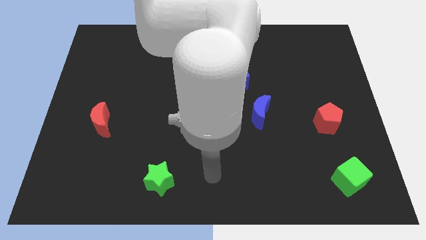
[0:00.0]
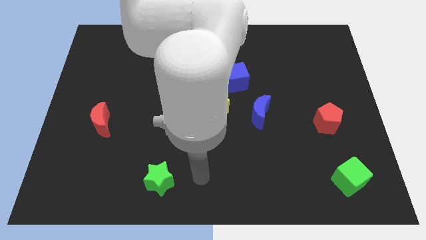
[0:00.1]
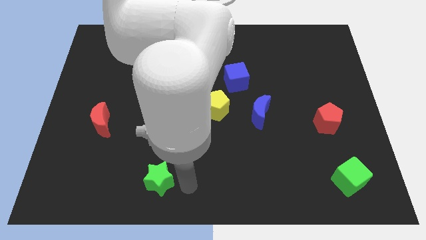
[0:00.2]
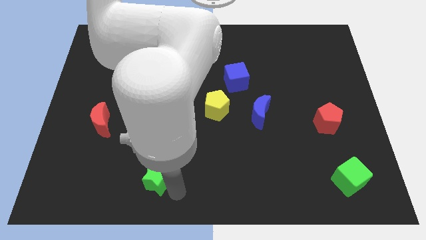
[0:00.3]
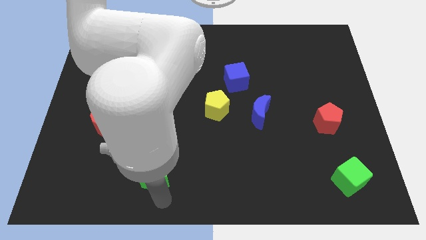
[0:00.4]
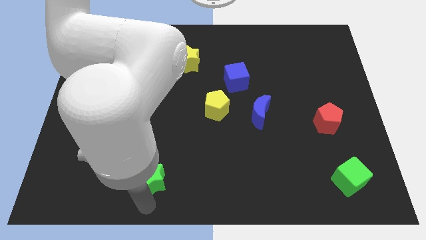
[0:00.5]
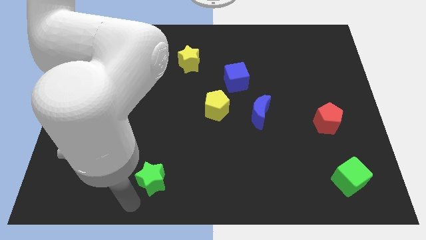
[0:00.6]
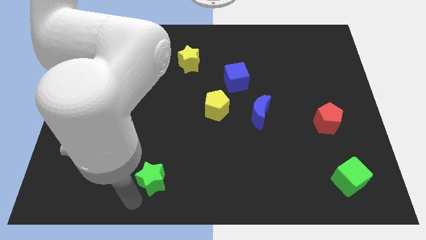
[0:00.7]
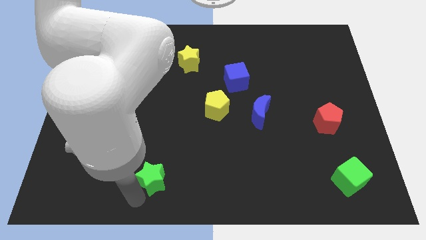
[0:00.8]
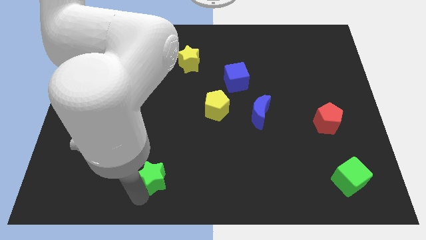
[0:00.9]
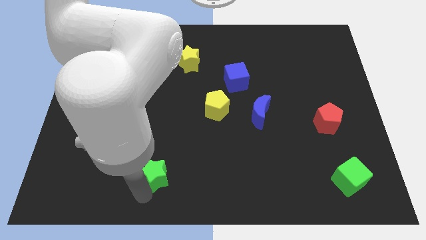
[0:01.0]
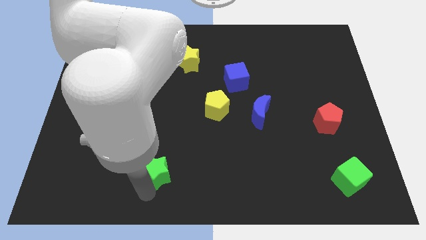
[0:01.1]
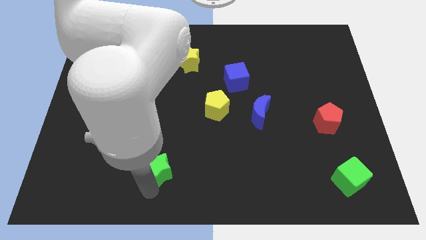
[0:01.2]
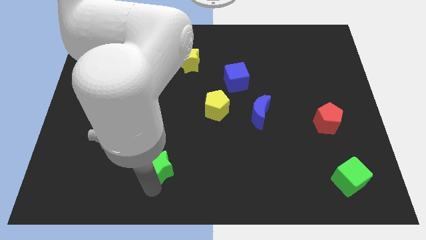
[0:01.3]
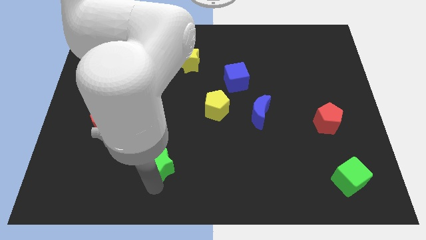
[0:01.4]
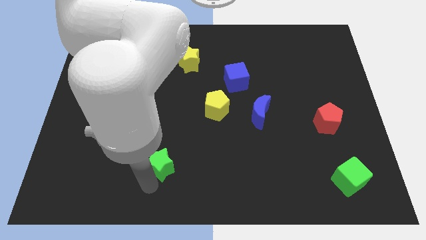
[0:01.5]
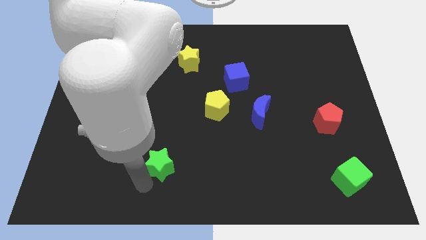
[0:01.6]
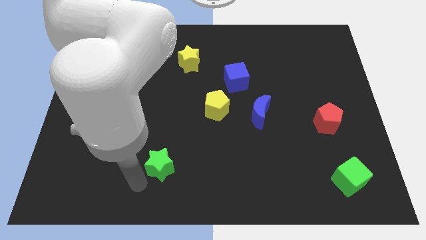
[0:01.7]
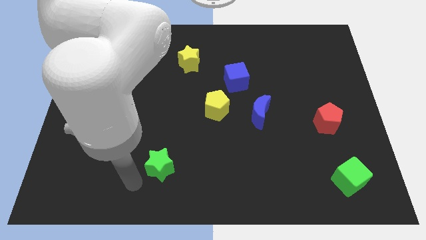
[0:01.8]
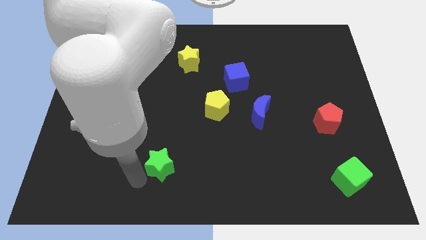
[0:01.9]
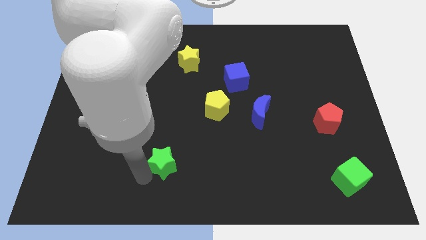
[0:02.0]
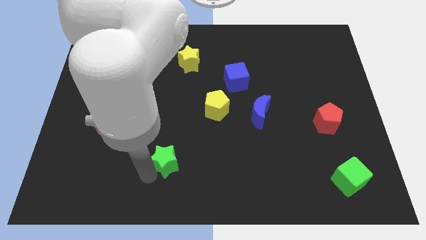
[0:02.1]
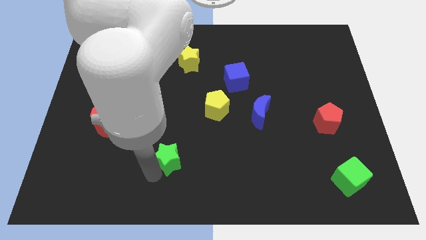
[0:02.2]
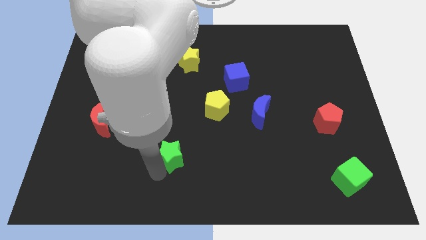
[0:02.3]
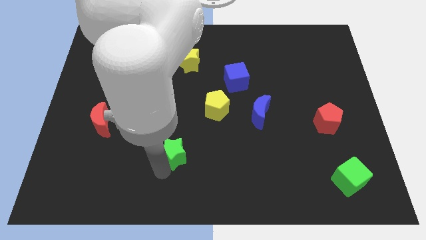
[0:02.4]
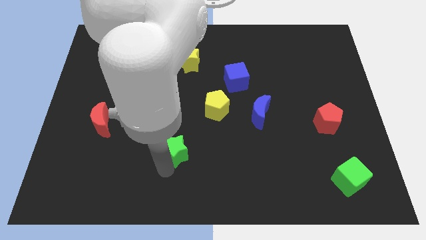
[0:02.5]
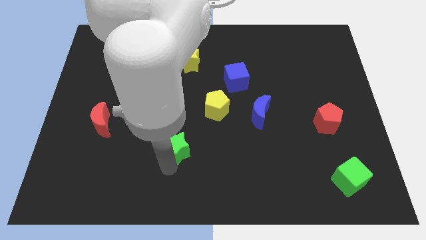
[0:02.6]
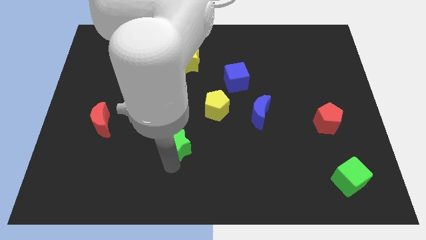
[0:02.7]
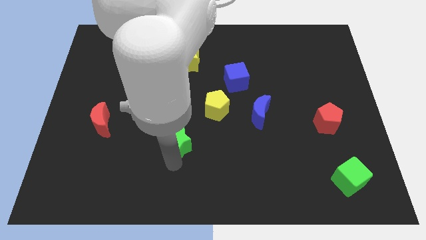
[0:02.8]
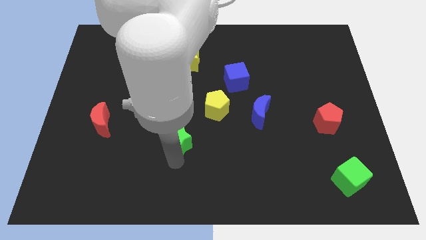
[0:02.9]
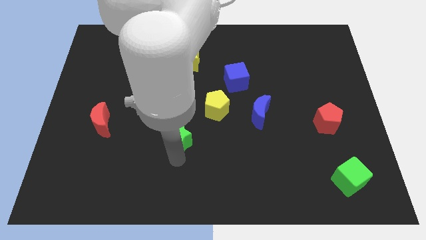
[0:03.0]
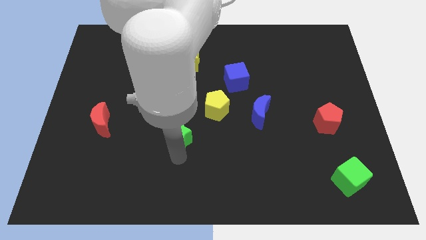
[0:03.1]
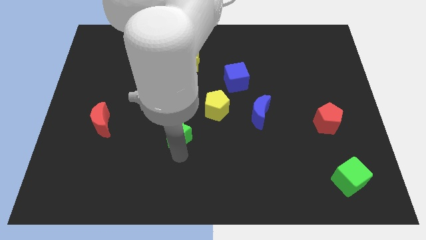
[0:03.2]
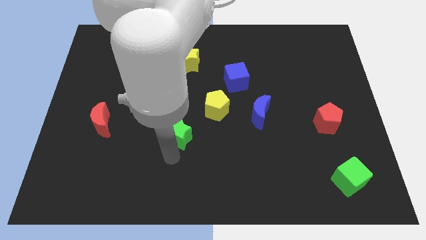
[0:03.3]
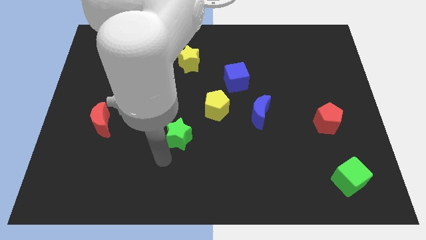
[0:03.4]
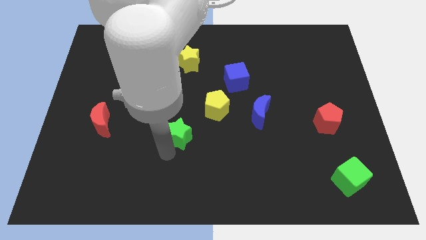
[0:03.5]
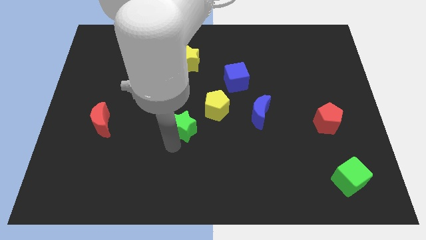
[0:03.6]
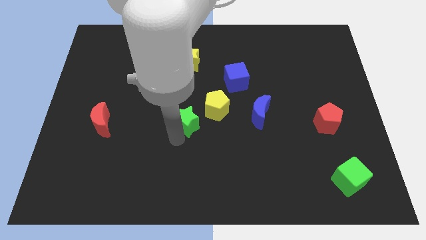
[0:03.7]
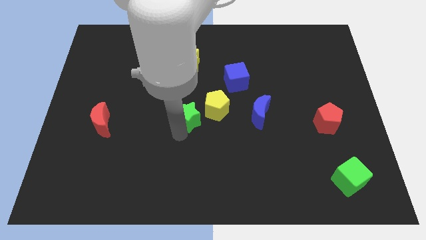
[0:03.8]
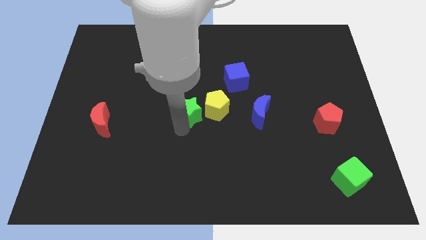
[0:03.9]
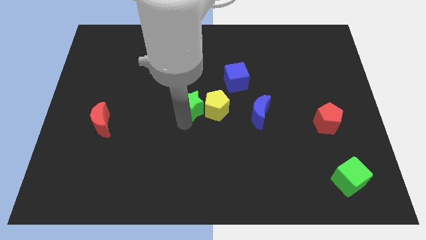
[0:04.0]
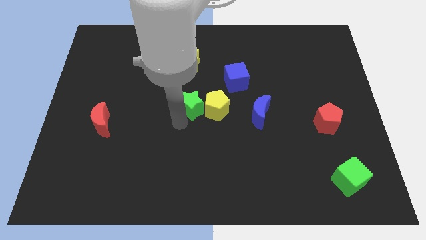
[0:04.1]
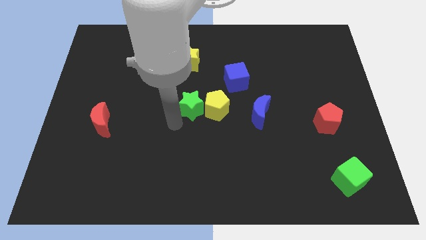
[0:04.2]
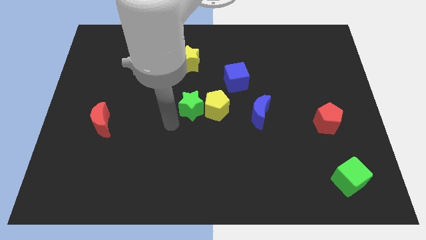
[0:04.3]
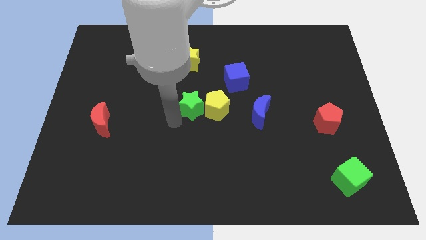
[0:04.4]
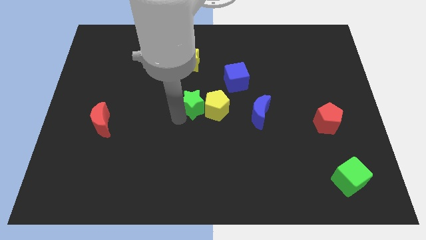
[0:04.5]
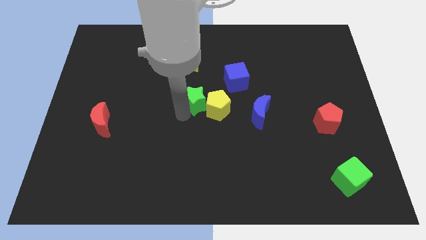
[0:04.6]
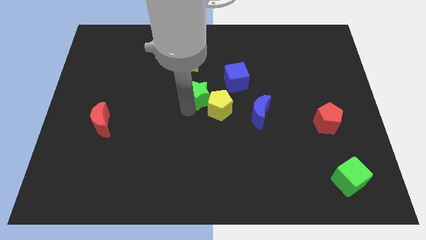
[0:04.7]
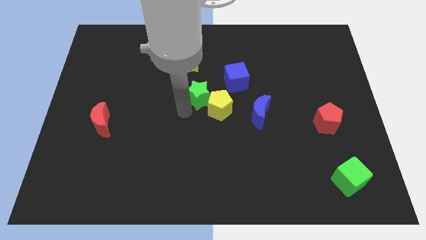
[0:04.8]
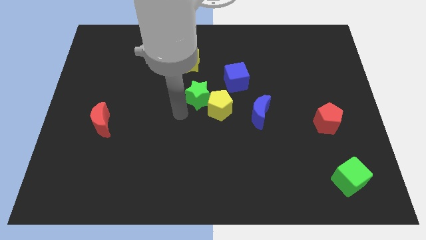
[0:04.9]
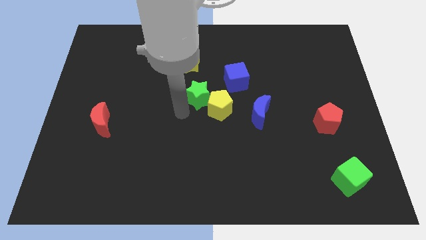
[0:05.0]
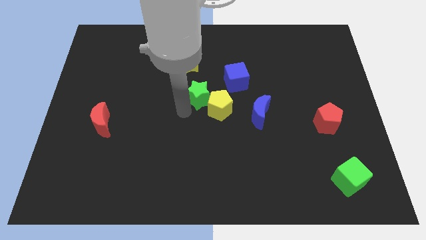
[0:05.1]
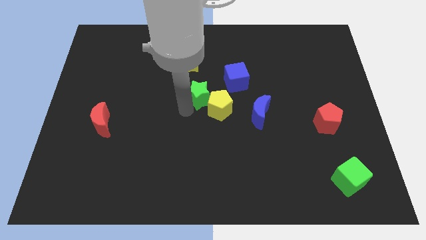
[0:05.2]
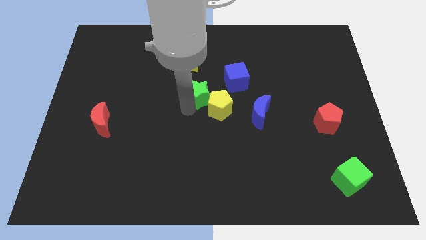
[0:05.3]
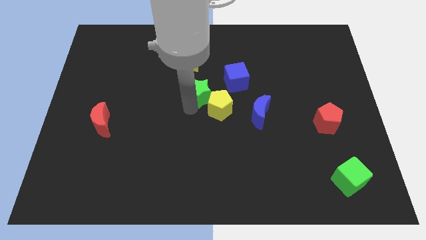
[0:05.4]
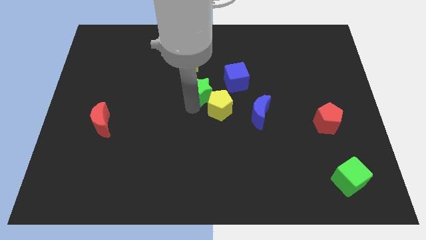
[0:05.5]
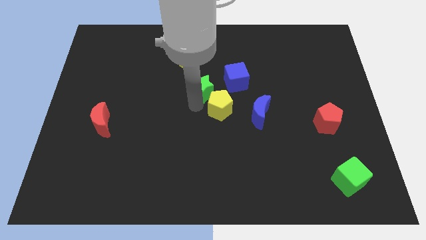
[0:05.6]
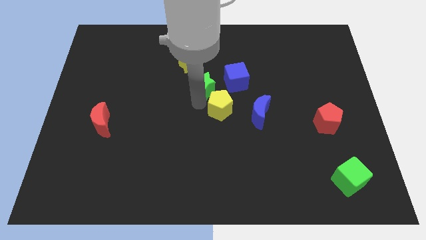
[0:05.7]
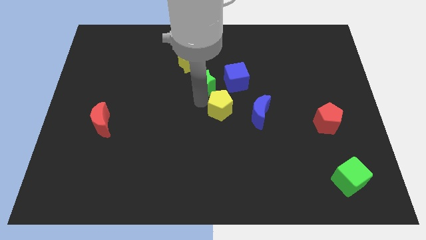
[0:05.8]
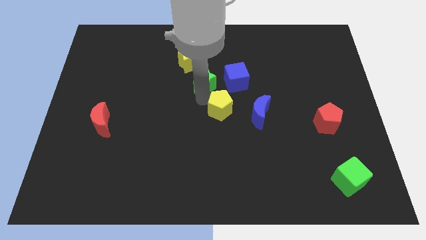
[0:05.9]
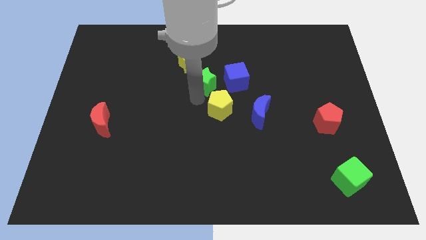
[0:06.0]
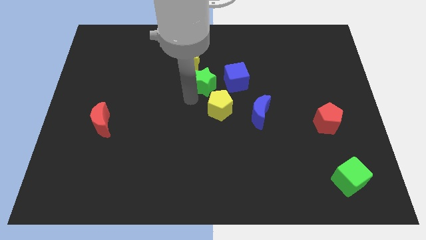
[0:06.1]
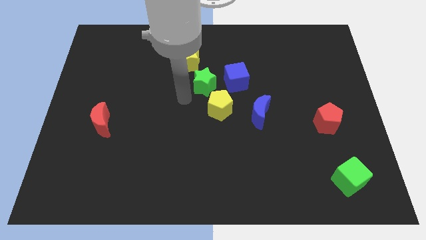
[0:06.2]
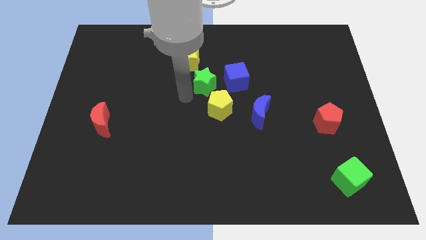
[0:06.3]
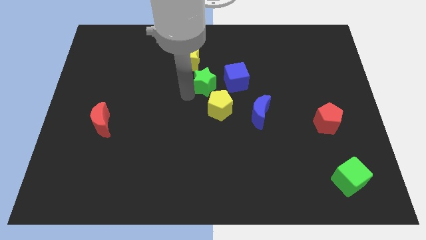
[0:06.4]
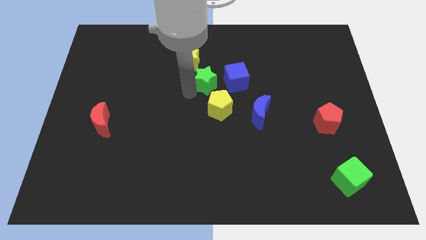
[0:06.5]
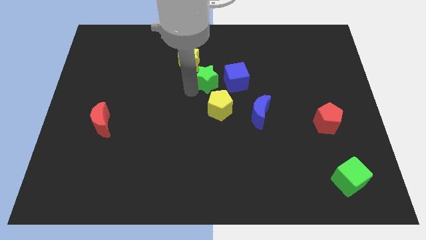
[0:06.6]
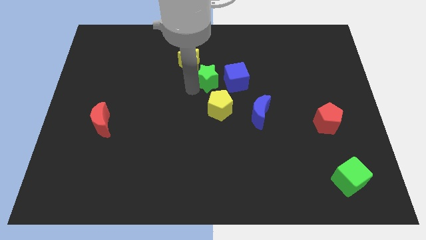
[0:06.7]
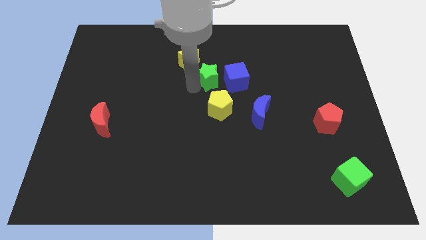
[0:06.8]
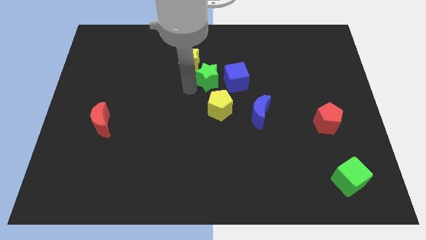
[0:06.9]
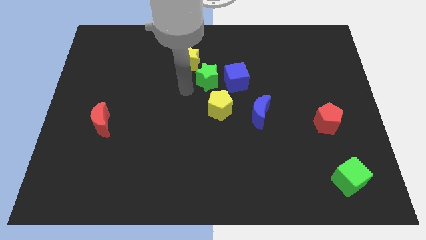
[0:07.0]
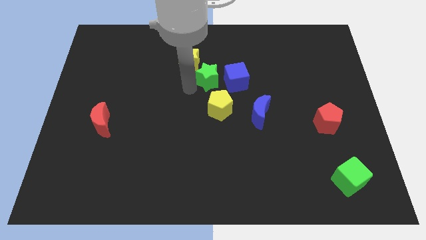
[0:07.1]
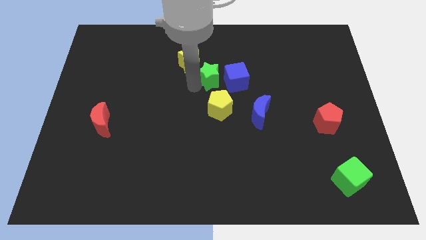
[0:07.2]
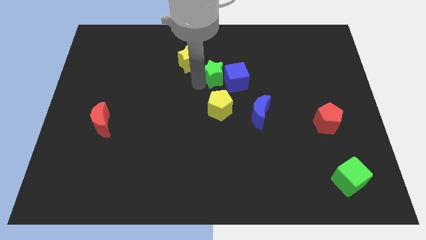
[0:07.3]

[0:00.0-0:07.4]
slide the green star to the right of the yellow star

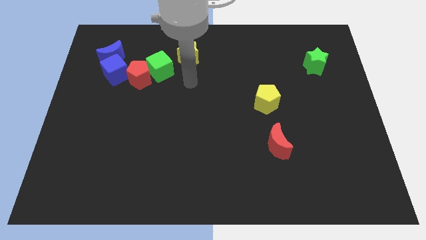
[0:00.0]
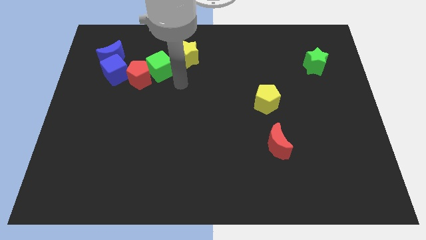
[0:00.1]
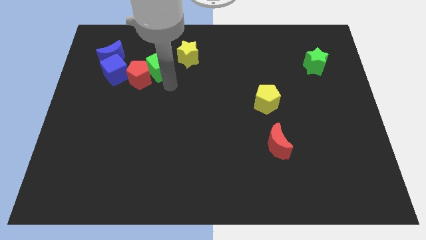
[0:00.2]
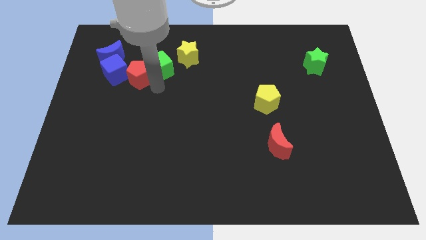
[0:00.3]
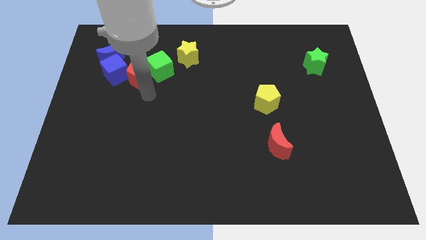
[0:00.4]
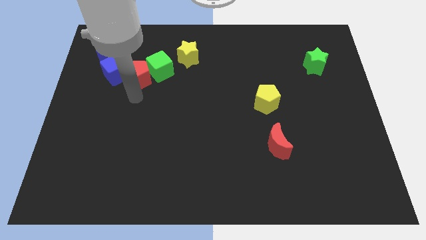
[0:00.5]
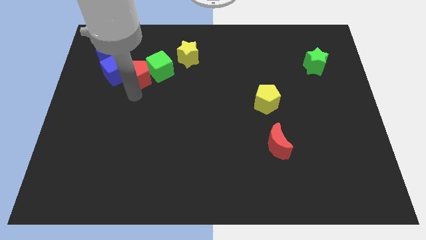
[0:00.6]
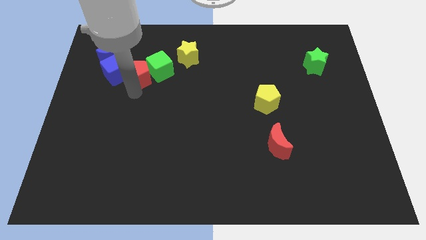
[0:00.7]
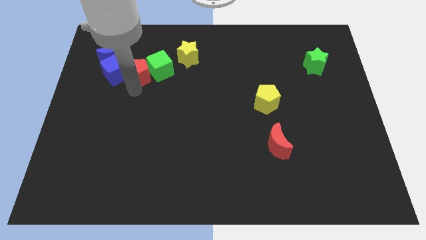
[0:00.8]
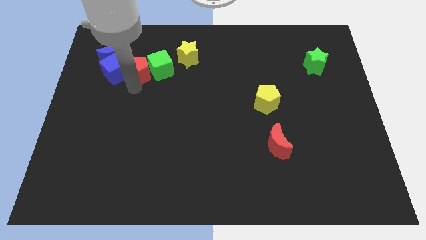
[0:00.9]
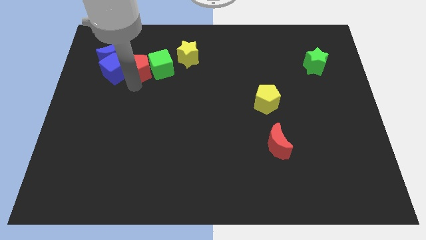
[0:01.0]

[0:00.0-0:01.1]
slide the red pentagon left of the yellow star
